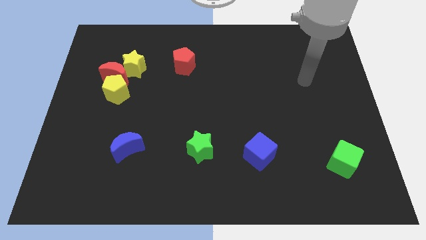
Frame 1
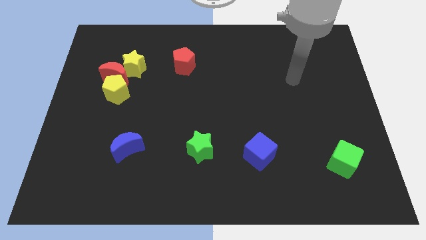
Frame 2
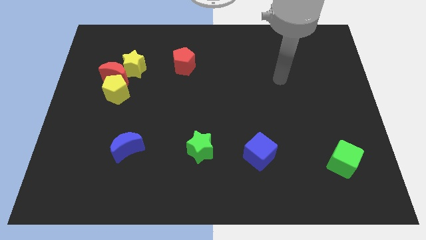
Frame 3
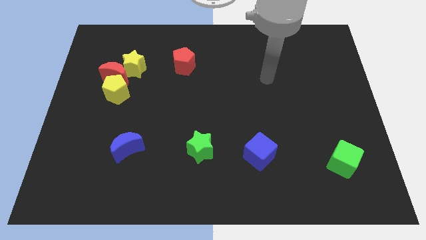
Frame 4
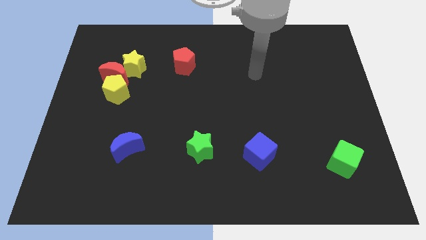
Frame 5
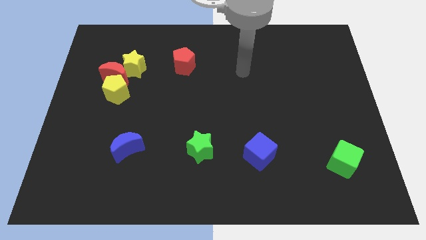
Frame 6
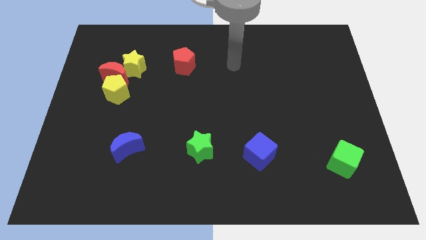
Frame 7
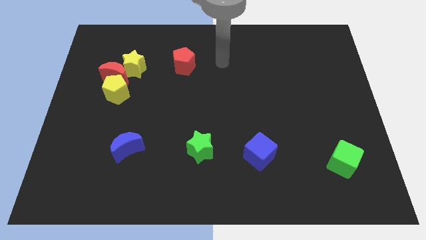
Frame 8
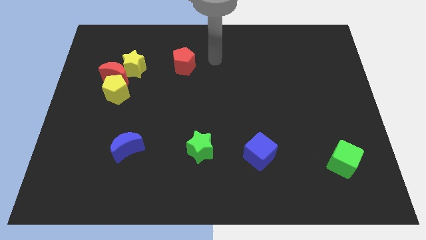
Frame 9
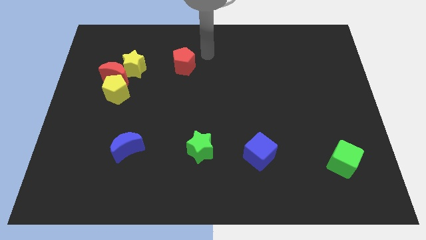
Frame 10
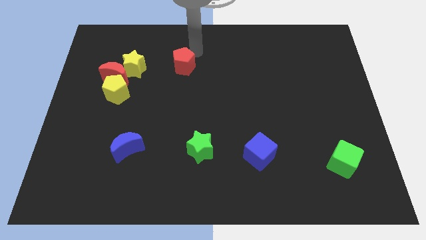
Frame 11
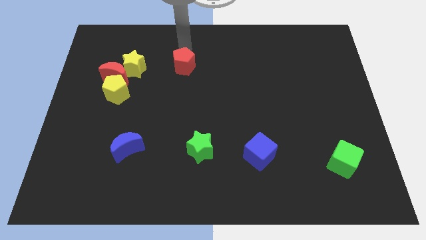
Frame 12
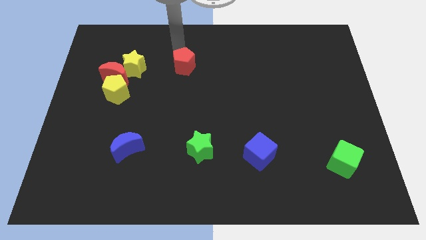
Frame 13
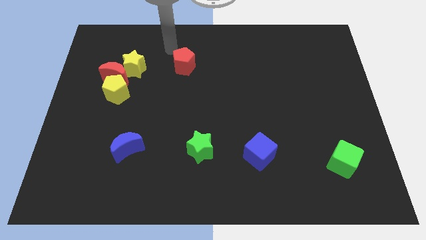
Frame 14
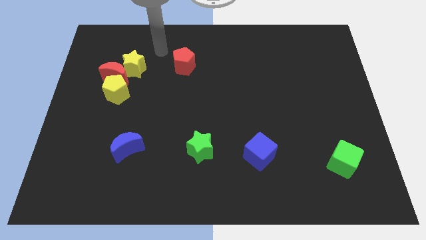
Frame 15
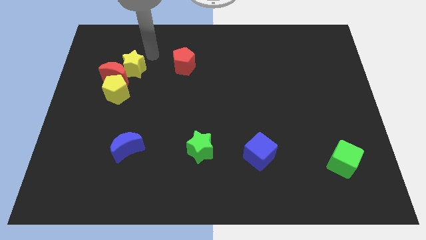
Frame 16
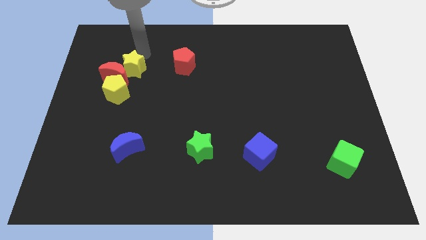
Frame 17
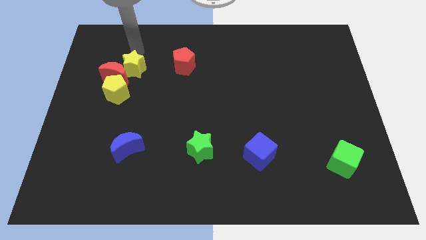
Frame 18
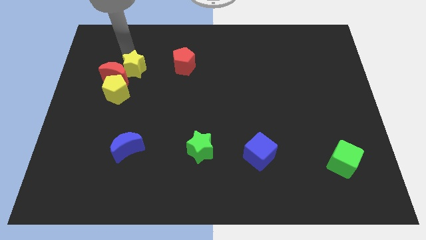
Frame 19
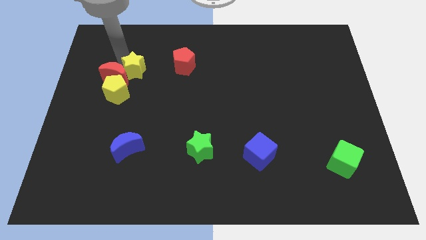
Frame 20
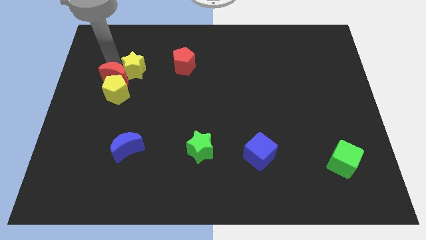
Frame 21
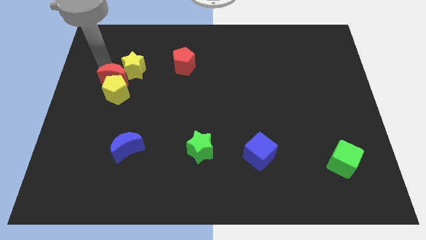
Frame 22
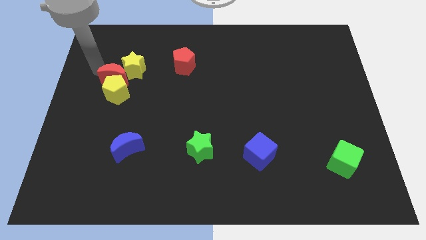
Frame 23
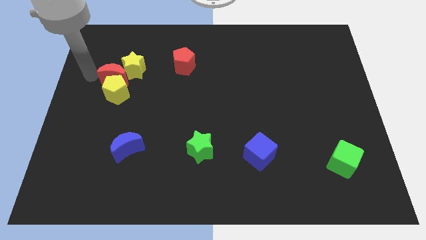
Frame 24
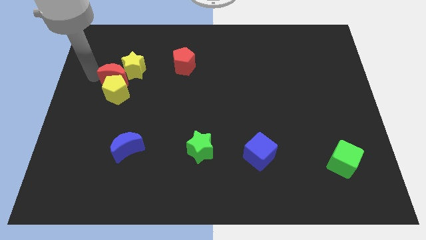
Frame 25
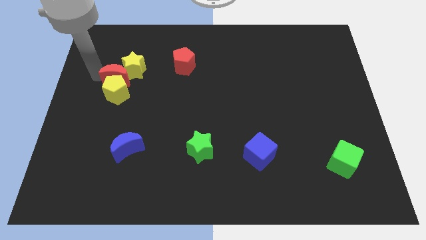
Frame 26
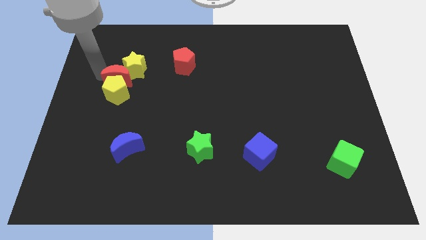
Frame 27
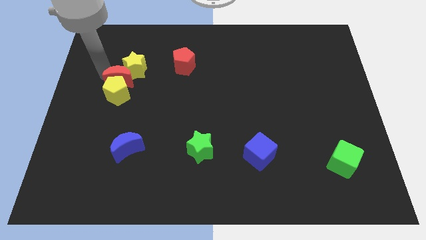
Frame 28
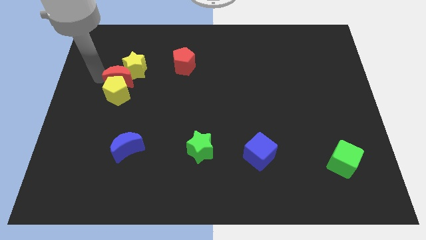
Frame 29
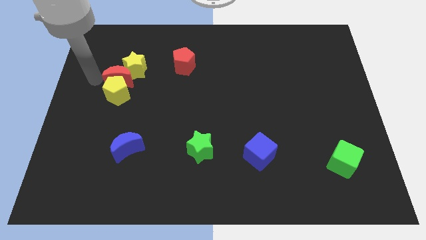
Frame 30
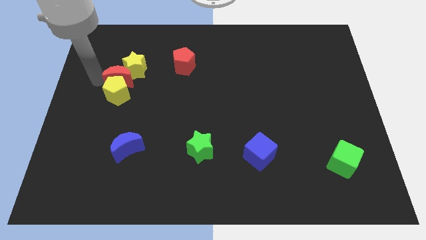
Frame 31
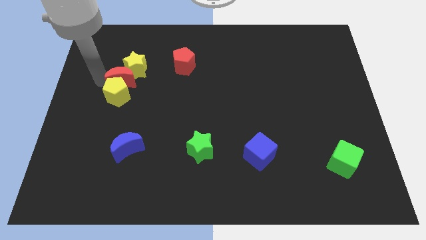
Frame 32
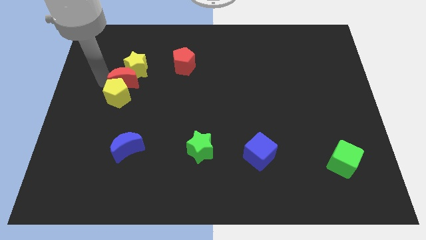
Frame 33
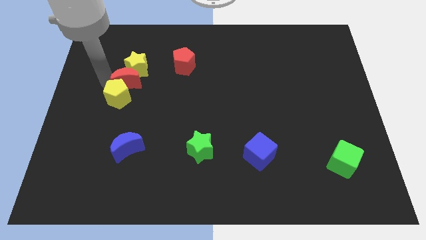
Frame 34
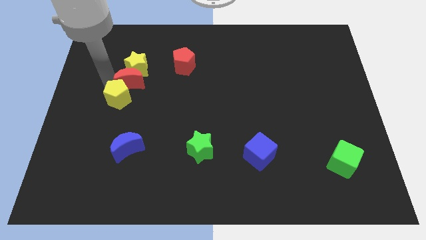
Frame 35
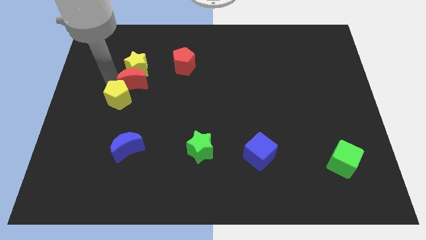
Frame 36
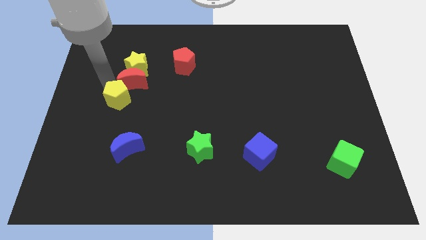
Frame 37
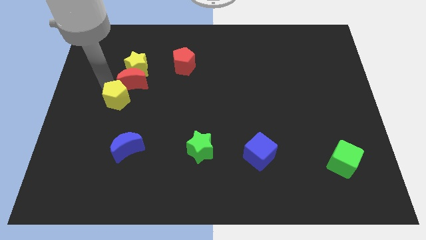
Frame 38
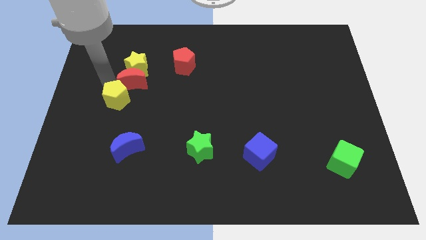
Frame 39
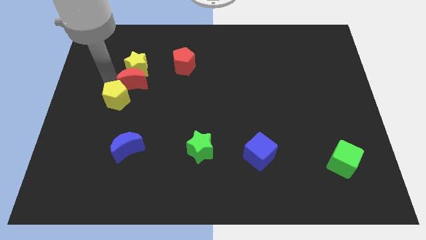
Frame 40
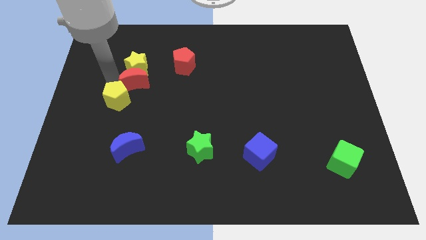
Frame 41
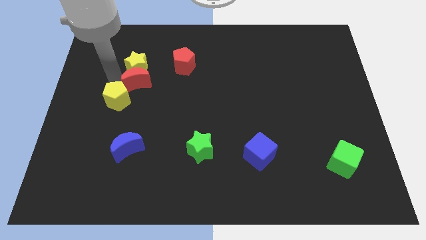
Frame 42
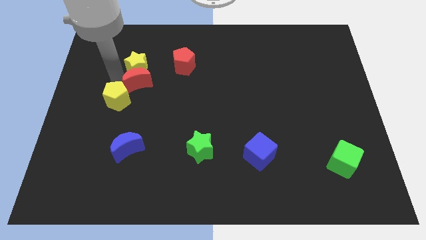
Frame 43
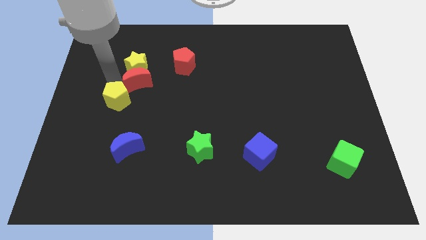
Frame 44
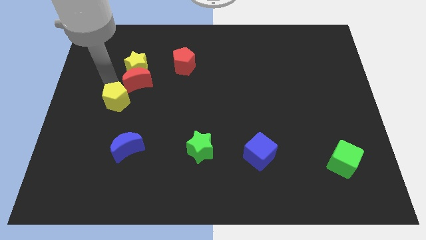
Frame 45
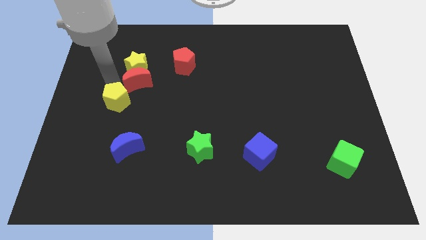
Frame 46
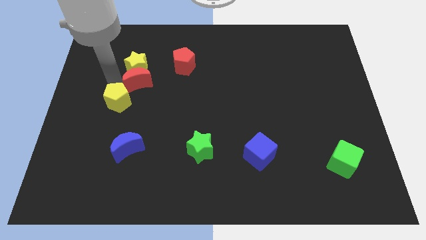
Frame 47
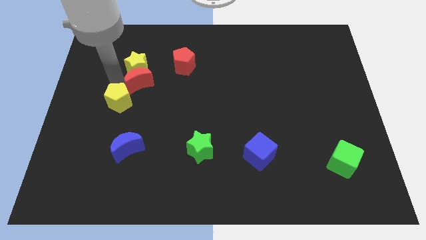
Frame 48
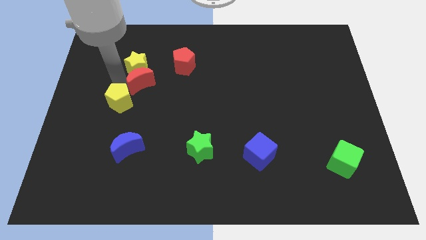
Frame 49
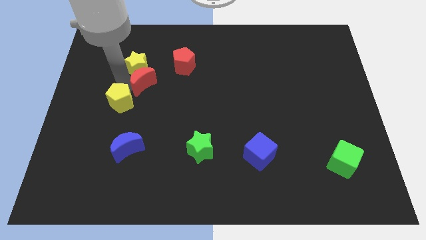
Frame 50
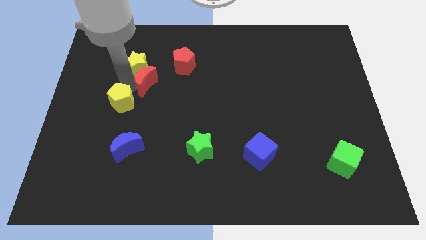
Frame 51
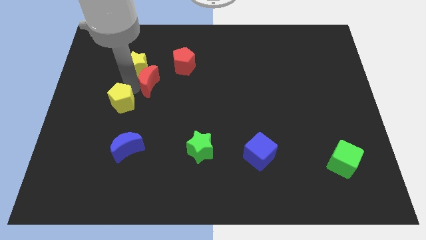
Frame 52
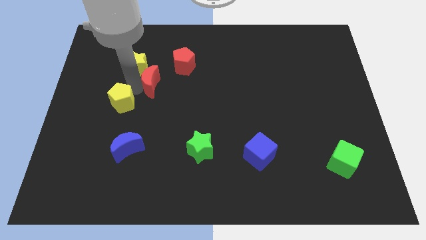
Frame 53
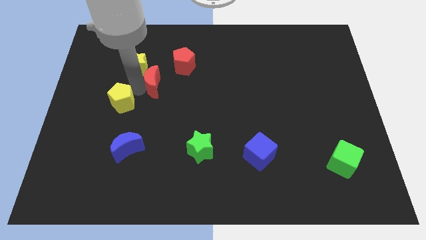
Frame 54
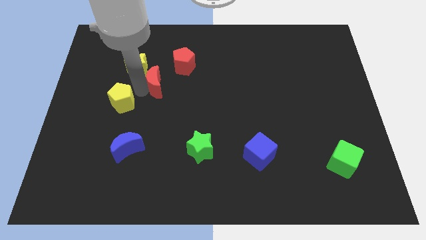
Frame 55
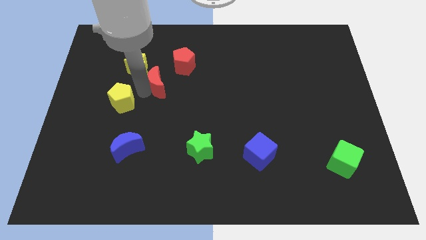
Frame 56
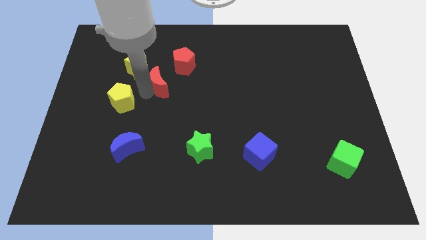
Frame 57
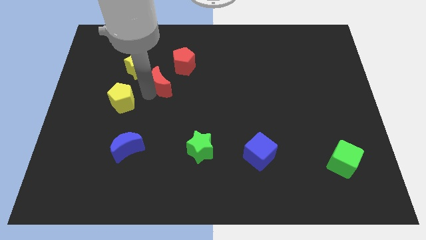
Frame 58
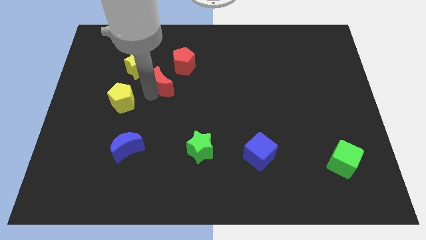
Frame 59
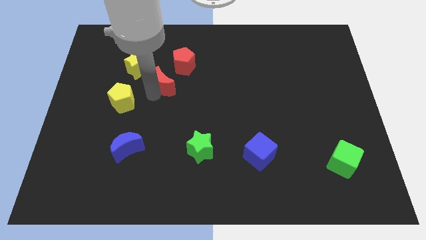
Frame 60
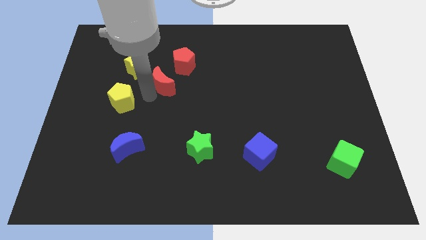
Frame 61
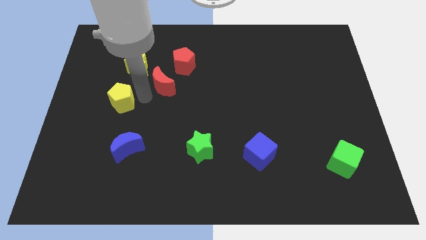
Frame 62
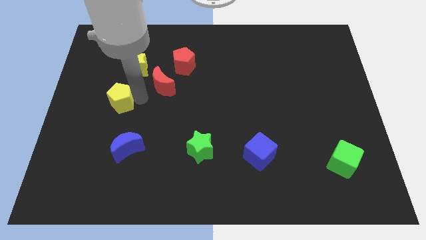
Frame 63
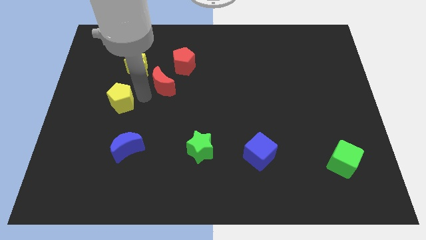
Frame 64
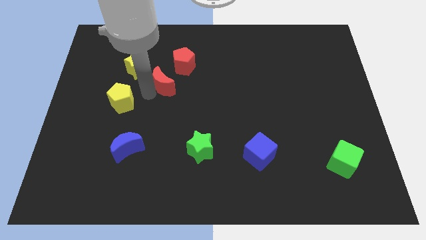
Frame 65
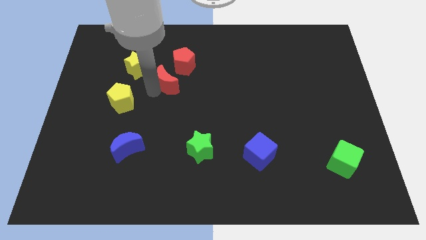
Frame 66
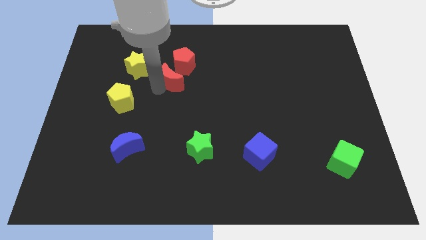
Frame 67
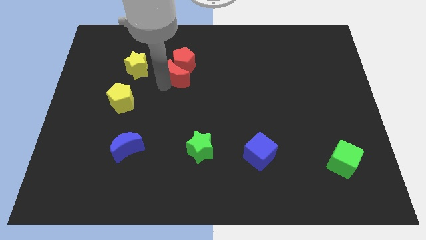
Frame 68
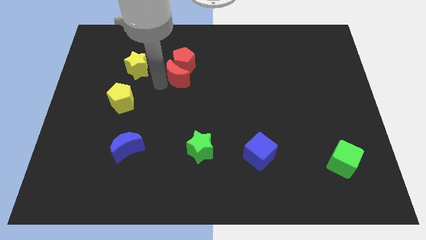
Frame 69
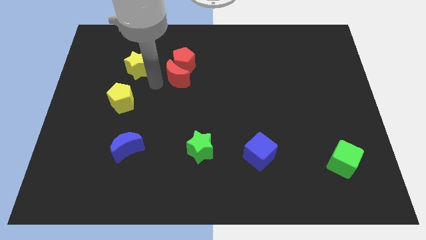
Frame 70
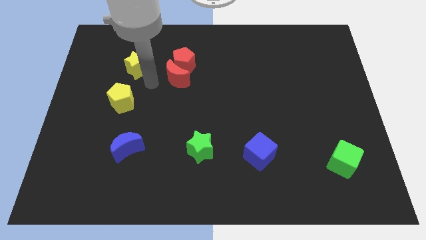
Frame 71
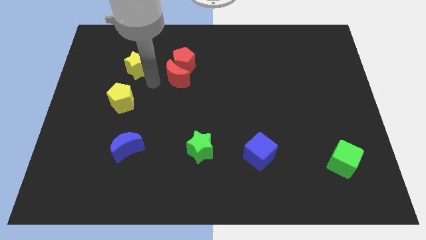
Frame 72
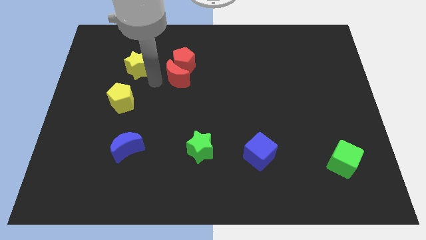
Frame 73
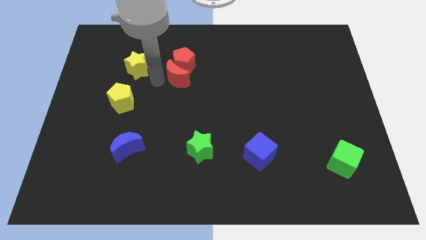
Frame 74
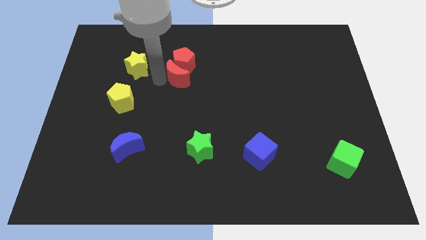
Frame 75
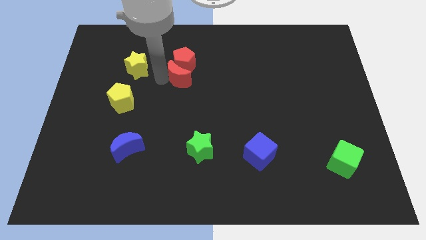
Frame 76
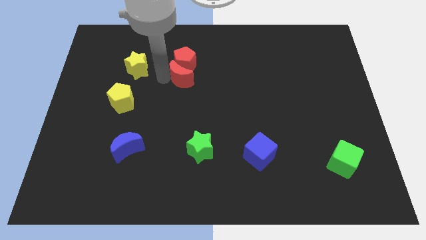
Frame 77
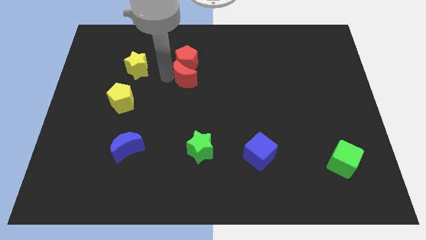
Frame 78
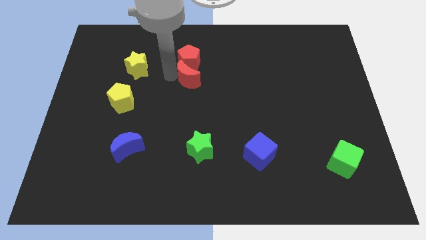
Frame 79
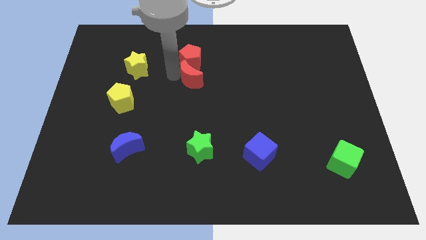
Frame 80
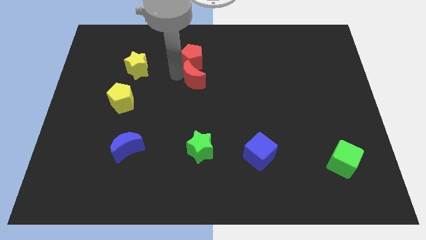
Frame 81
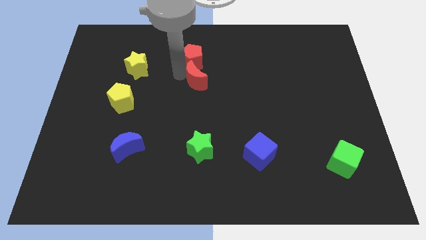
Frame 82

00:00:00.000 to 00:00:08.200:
slide the red moon right
